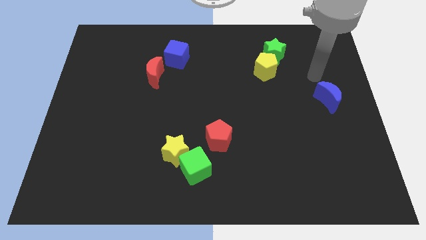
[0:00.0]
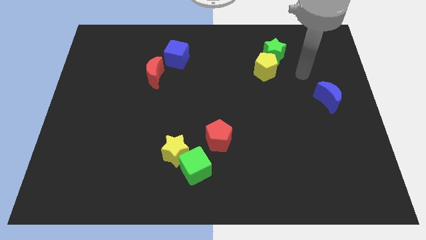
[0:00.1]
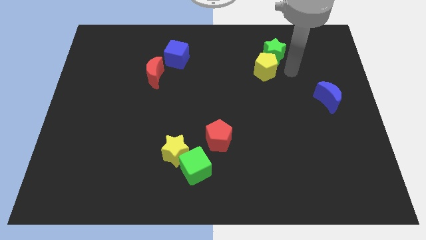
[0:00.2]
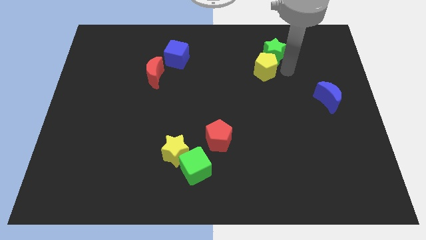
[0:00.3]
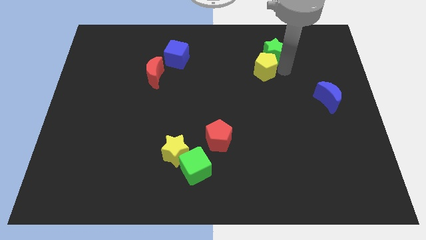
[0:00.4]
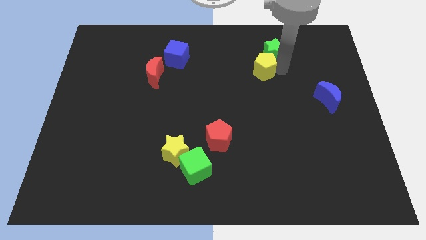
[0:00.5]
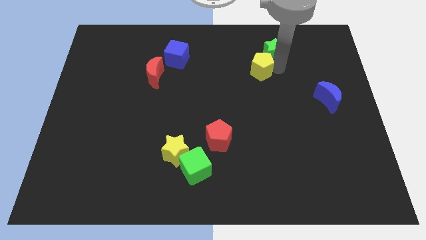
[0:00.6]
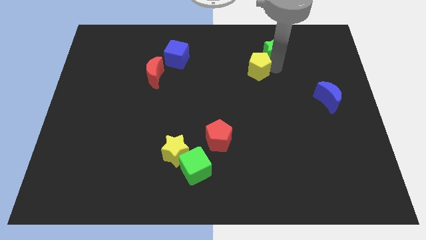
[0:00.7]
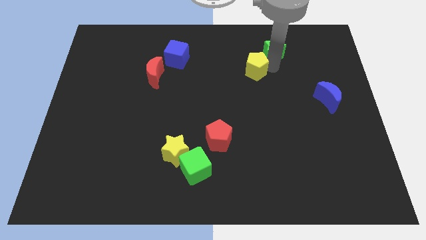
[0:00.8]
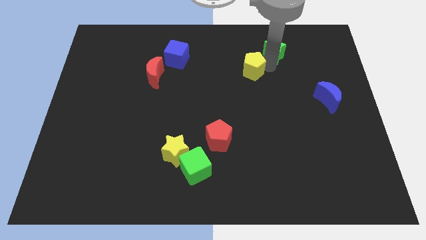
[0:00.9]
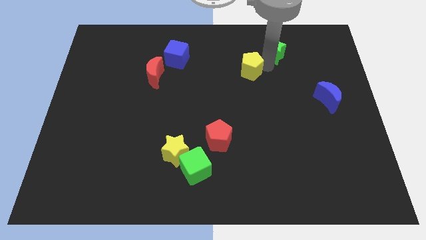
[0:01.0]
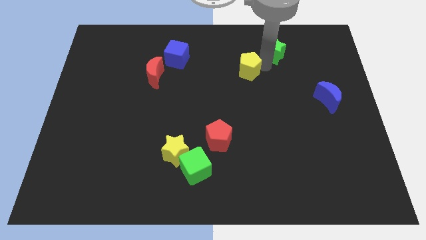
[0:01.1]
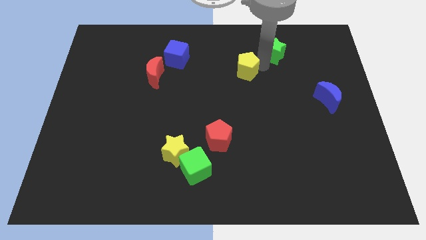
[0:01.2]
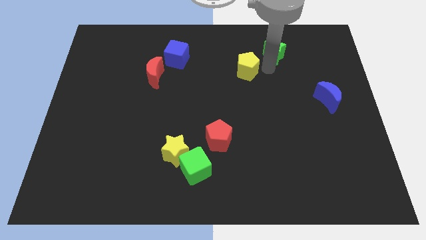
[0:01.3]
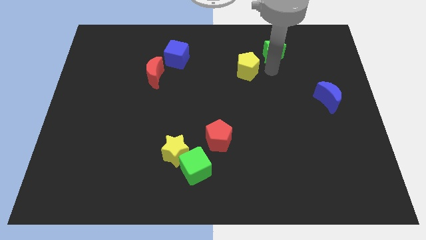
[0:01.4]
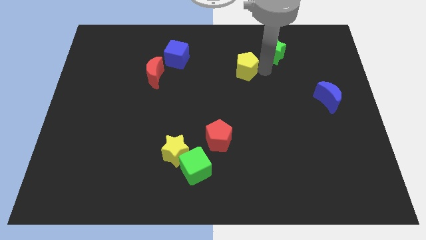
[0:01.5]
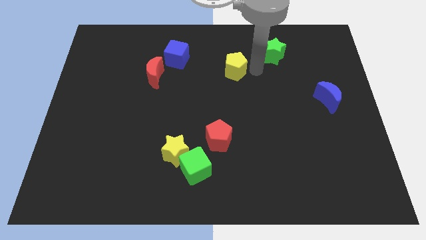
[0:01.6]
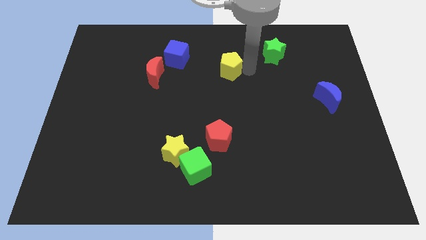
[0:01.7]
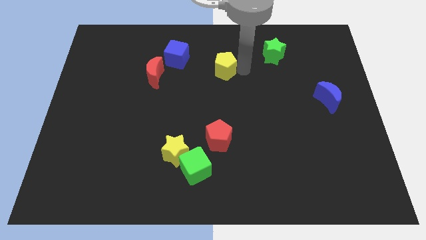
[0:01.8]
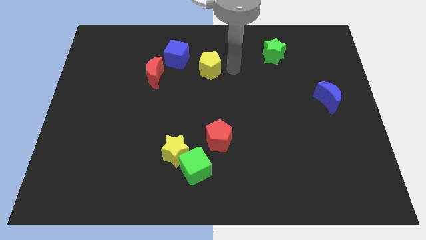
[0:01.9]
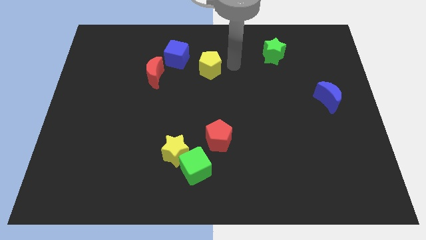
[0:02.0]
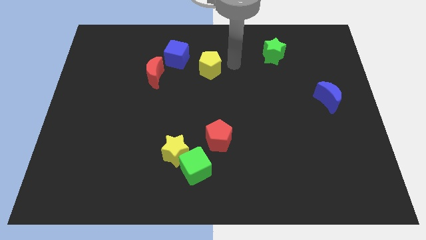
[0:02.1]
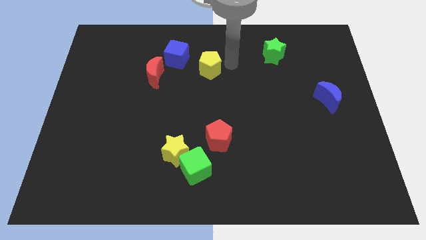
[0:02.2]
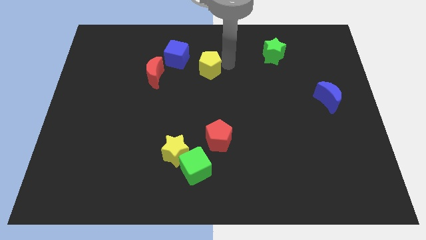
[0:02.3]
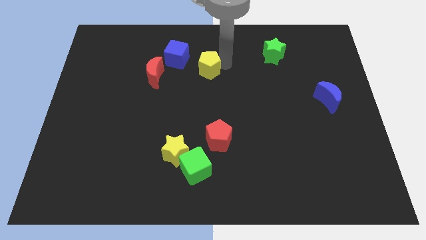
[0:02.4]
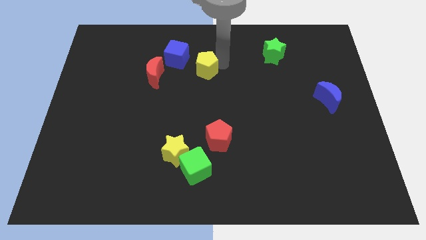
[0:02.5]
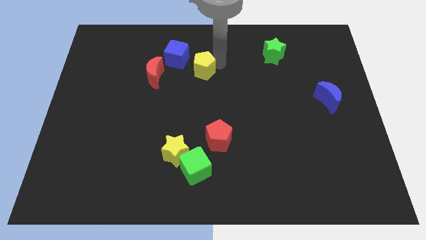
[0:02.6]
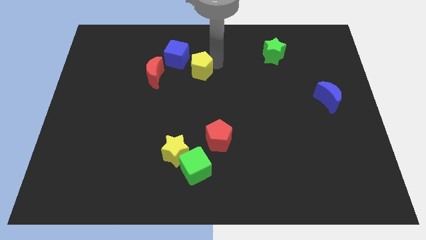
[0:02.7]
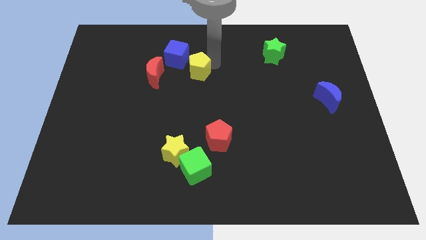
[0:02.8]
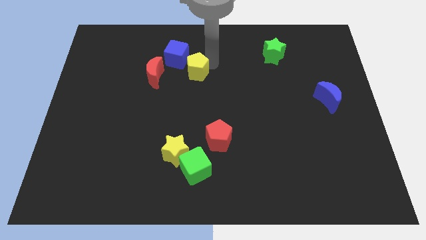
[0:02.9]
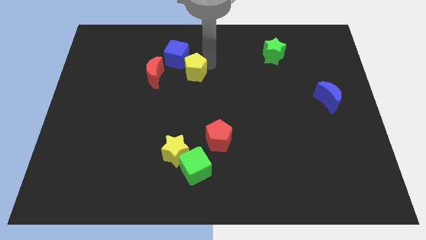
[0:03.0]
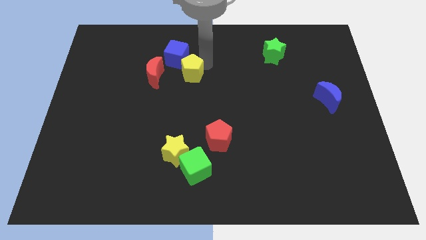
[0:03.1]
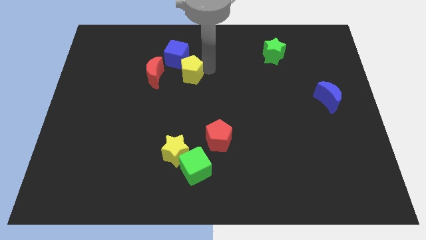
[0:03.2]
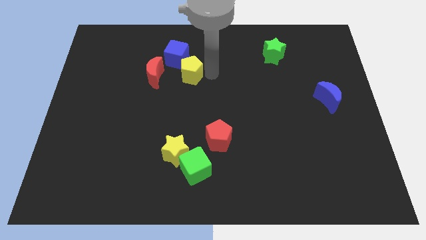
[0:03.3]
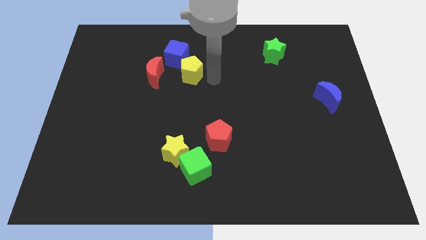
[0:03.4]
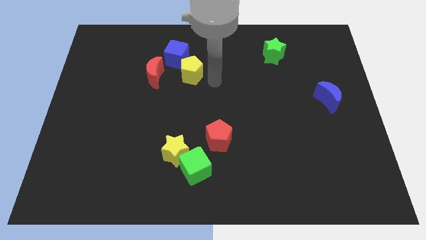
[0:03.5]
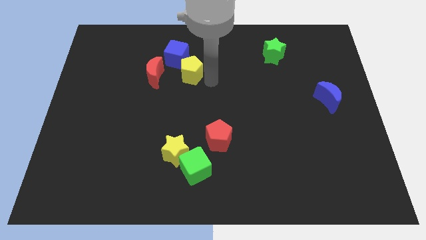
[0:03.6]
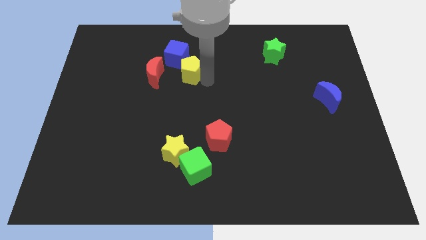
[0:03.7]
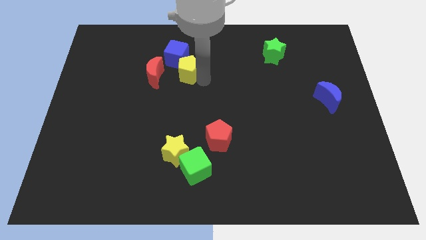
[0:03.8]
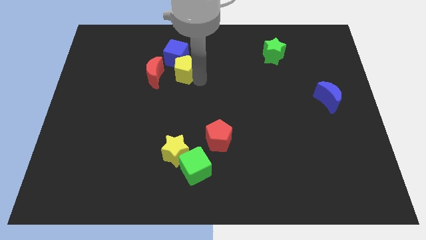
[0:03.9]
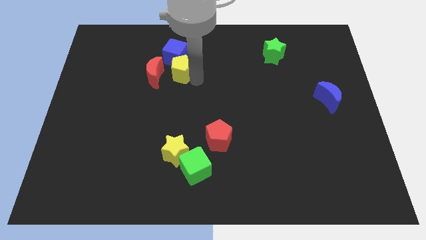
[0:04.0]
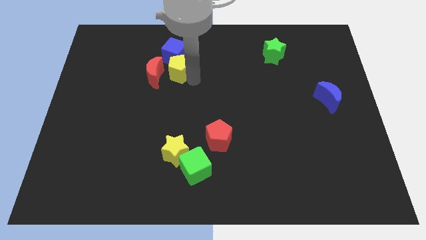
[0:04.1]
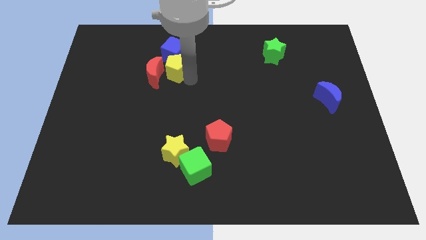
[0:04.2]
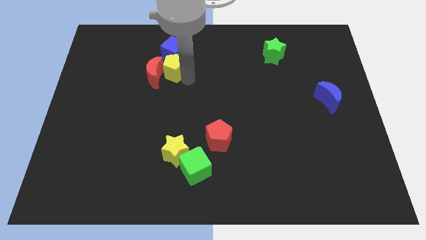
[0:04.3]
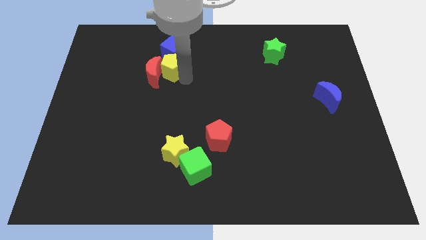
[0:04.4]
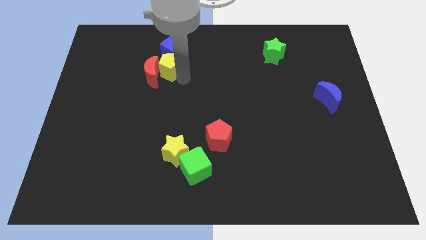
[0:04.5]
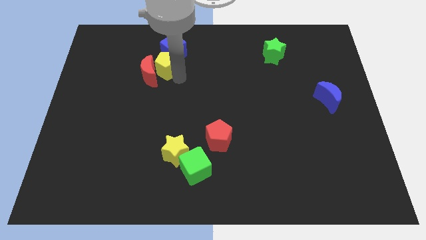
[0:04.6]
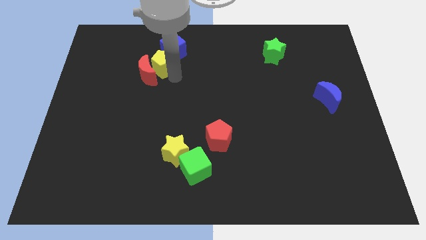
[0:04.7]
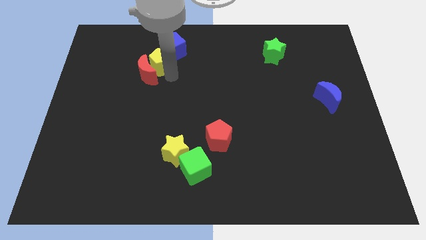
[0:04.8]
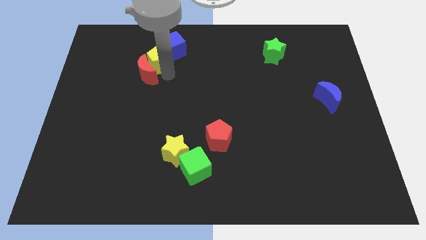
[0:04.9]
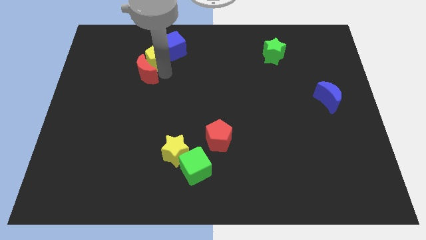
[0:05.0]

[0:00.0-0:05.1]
push the yellow pentagon to the left of the blue cube

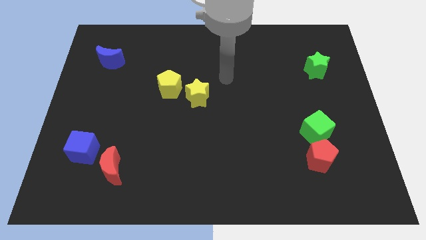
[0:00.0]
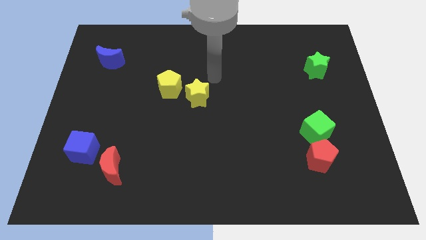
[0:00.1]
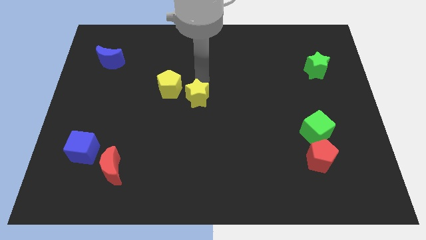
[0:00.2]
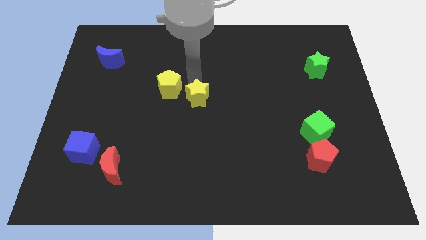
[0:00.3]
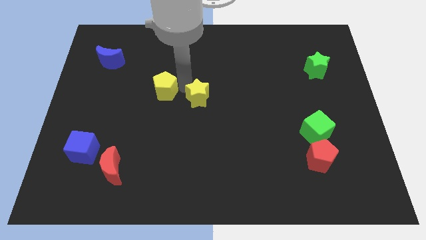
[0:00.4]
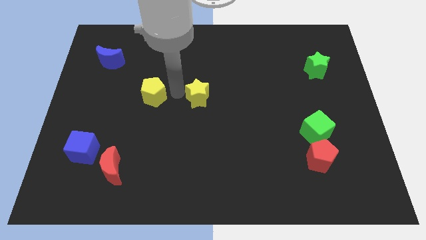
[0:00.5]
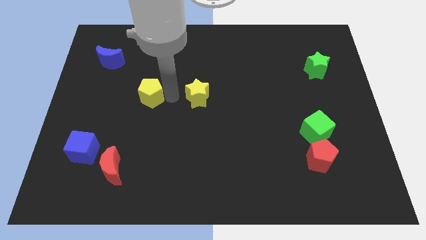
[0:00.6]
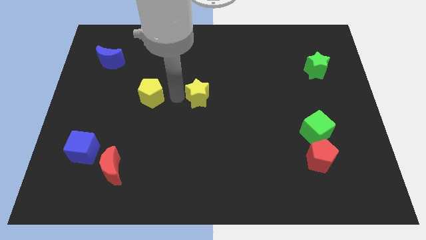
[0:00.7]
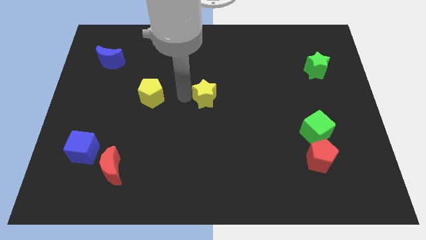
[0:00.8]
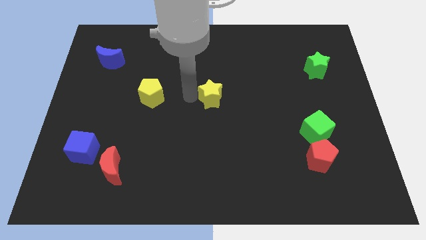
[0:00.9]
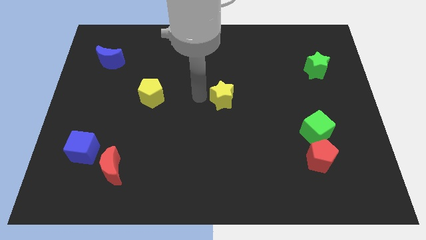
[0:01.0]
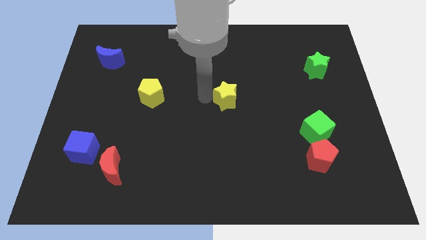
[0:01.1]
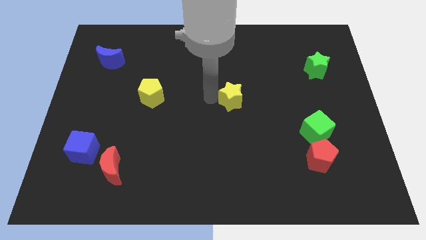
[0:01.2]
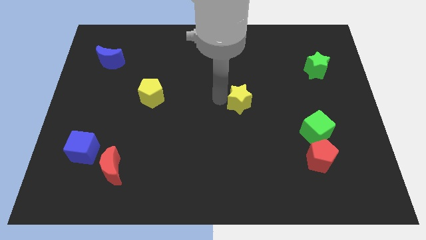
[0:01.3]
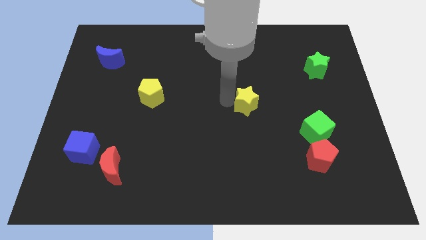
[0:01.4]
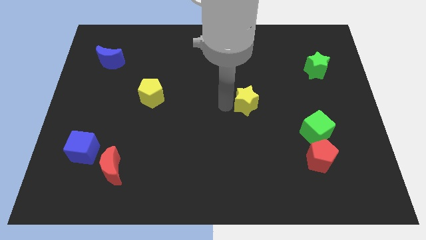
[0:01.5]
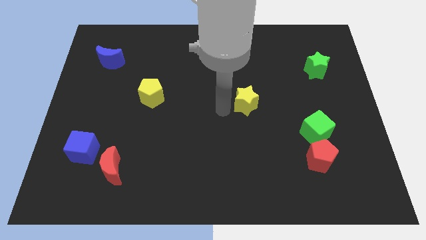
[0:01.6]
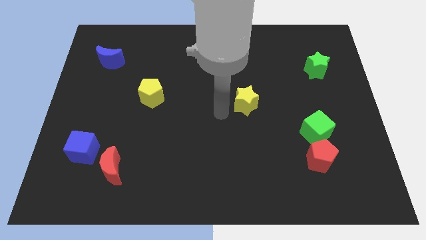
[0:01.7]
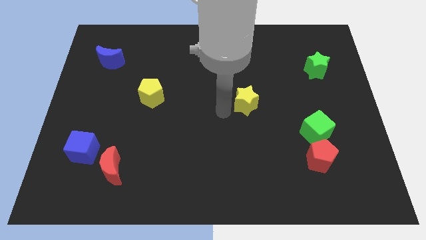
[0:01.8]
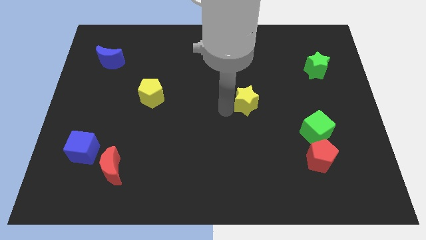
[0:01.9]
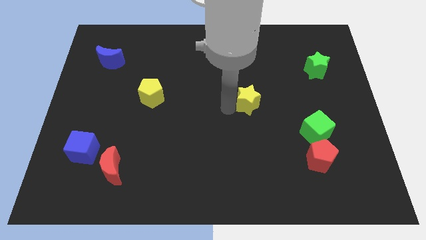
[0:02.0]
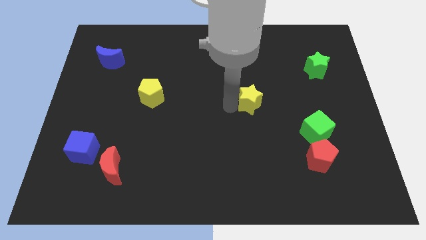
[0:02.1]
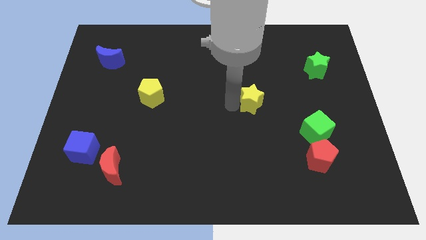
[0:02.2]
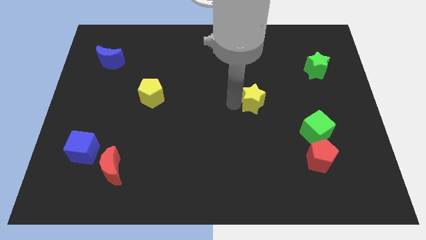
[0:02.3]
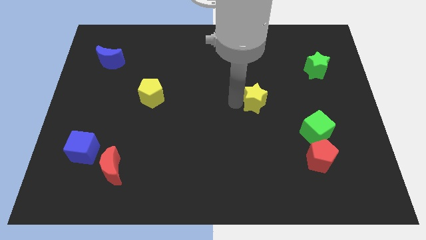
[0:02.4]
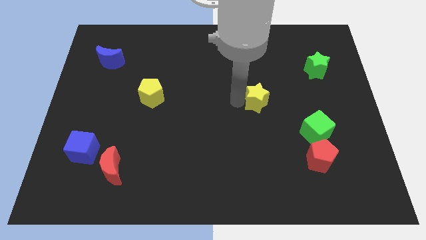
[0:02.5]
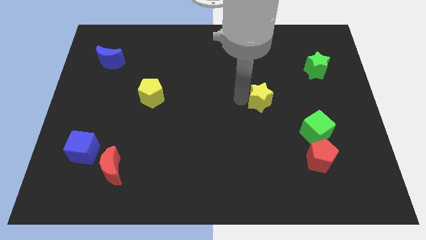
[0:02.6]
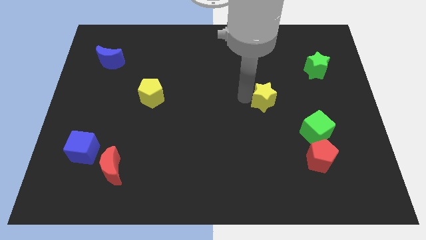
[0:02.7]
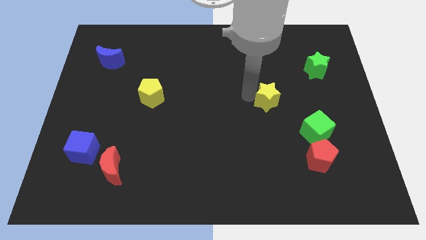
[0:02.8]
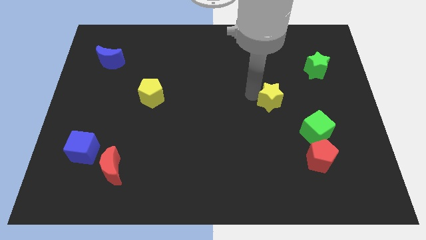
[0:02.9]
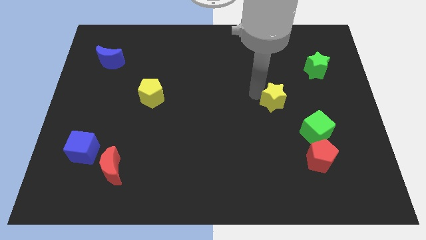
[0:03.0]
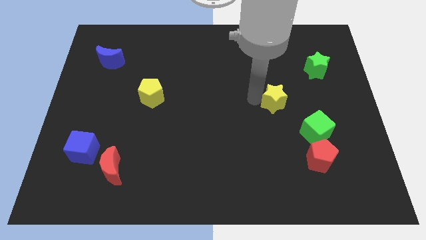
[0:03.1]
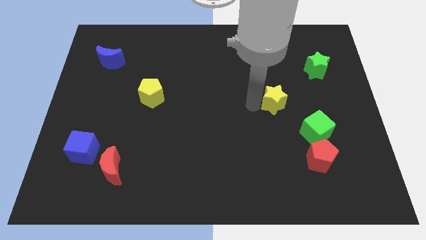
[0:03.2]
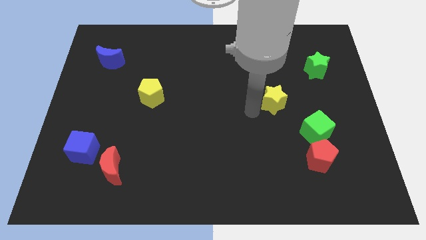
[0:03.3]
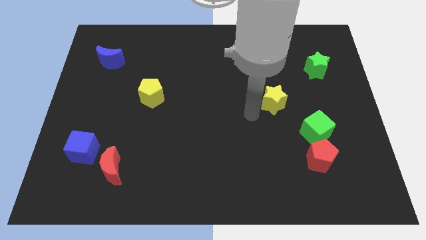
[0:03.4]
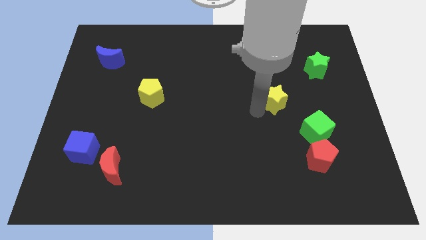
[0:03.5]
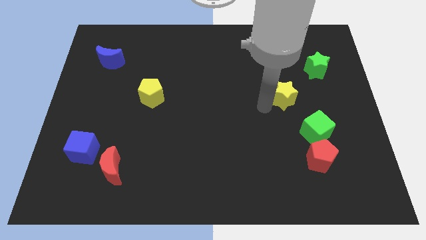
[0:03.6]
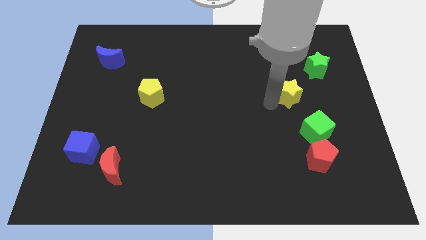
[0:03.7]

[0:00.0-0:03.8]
put the yellow star to the bottom left of the green star
